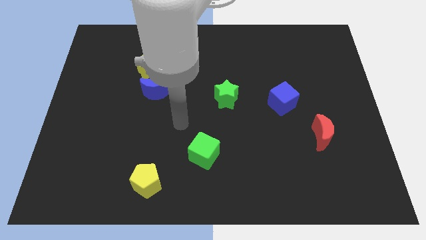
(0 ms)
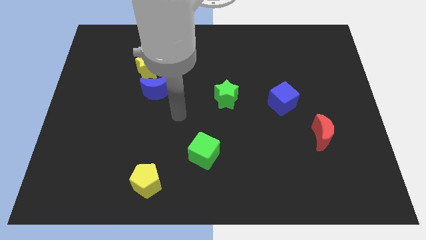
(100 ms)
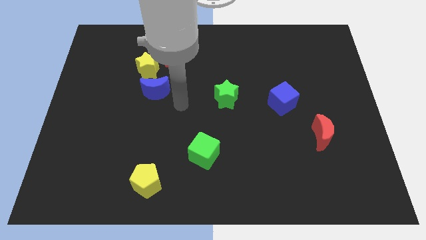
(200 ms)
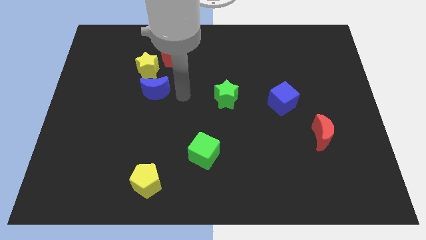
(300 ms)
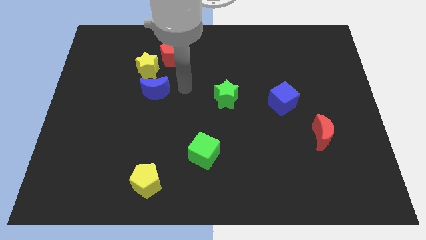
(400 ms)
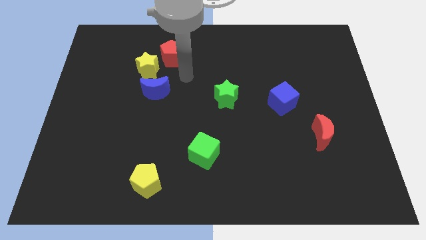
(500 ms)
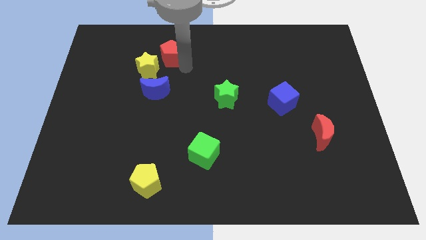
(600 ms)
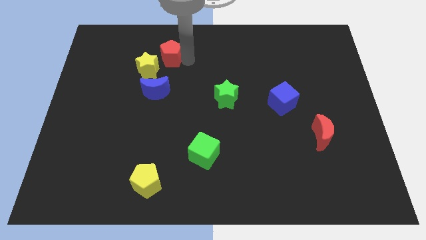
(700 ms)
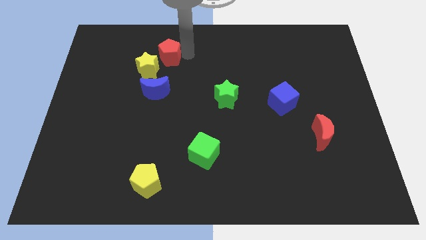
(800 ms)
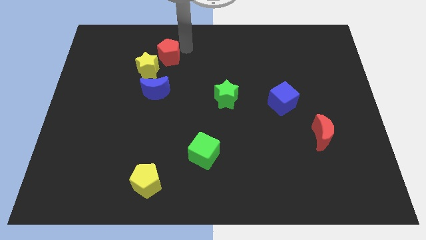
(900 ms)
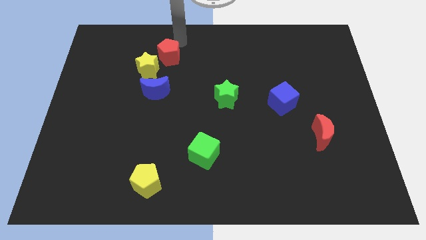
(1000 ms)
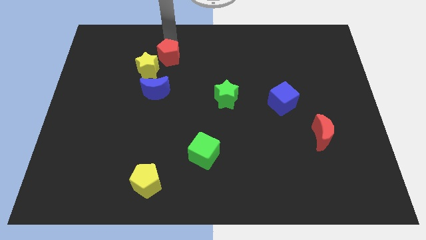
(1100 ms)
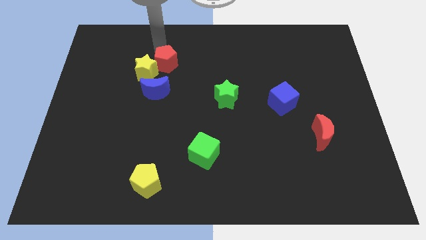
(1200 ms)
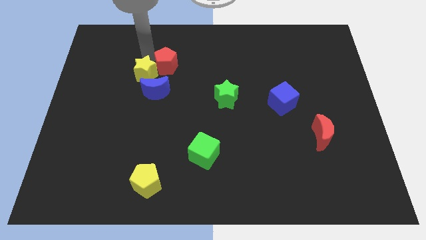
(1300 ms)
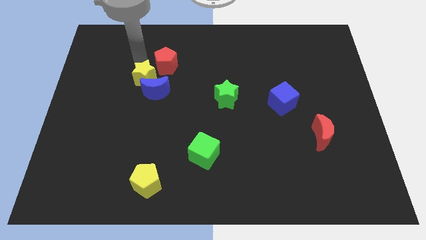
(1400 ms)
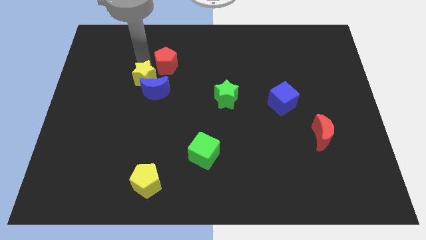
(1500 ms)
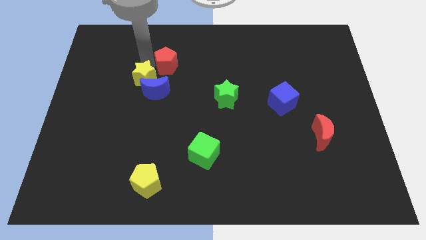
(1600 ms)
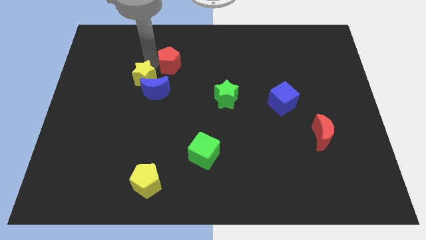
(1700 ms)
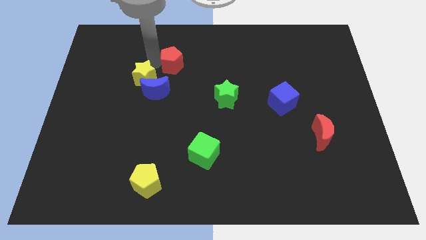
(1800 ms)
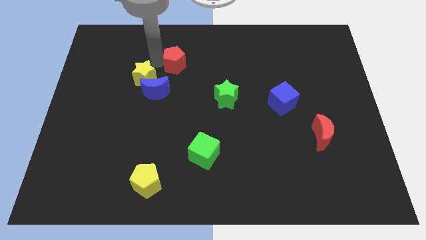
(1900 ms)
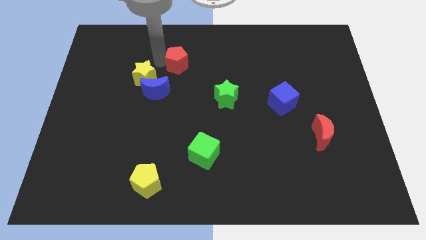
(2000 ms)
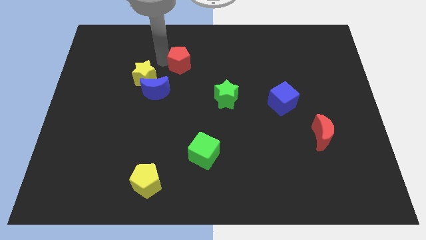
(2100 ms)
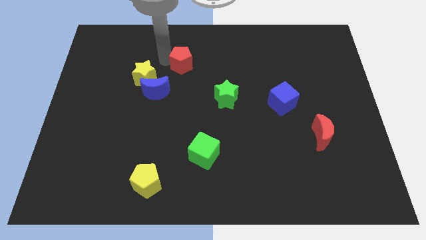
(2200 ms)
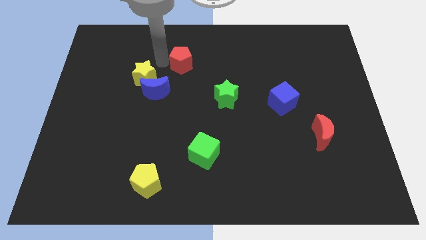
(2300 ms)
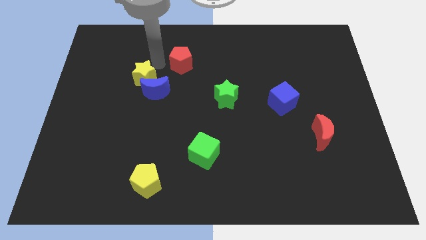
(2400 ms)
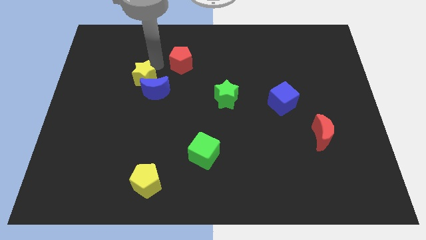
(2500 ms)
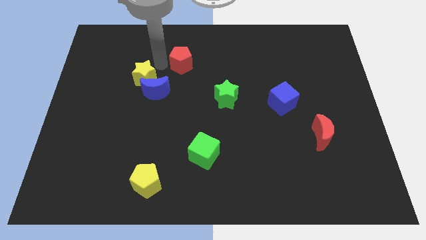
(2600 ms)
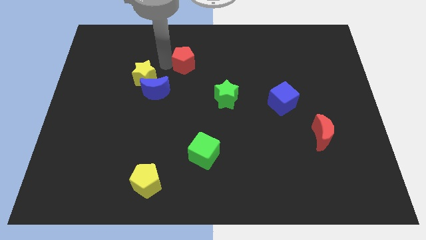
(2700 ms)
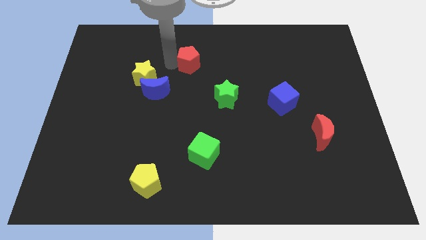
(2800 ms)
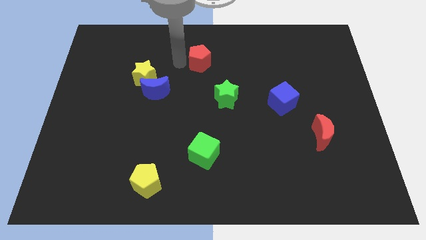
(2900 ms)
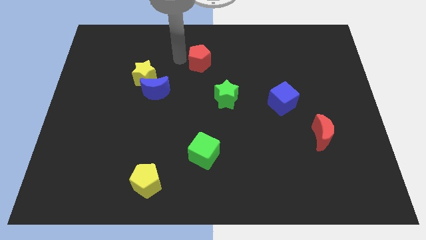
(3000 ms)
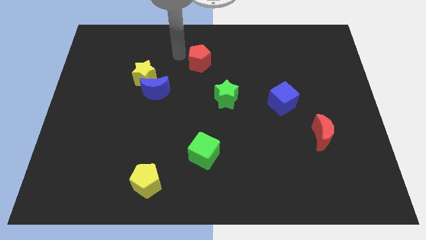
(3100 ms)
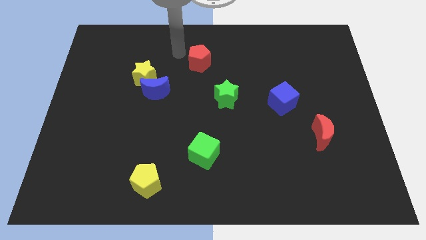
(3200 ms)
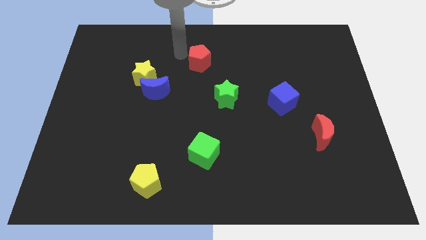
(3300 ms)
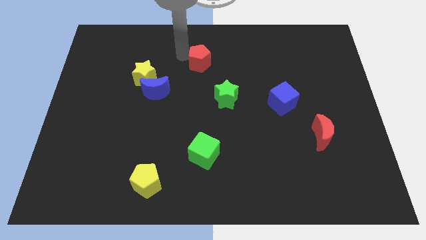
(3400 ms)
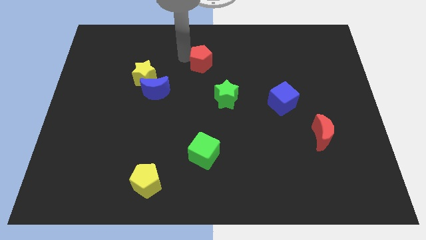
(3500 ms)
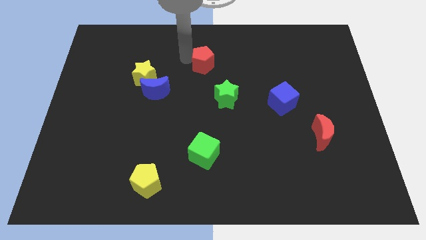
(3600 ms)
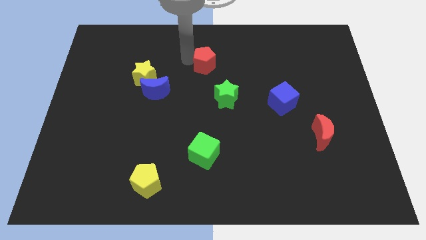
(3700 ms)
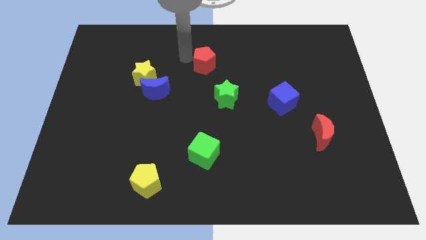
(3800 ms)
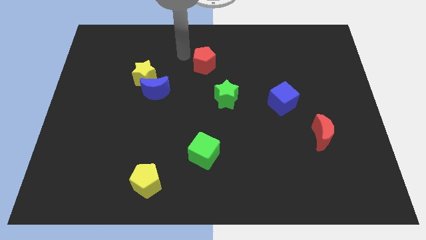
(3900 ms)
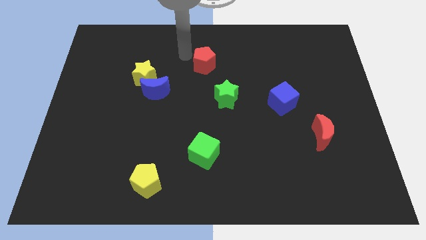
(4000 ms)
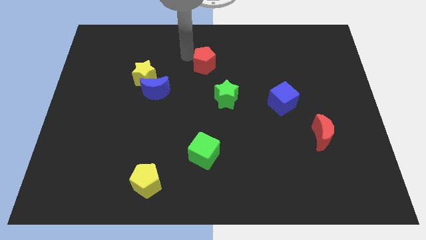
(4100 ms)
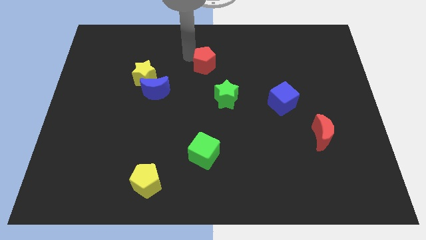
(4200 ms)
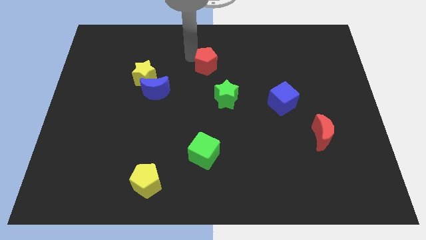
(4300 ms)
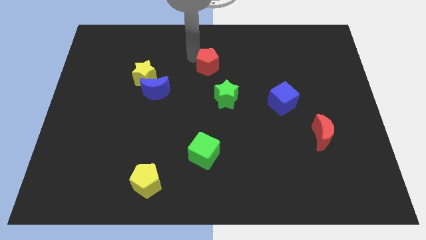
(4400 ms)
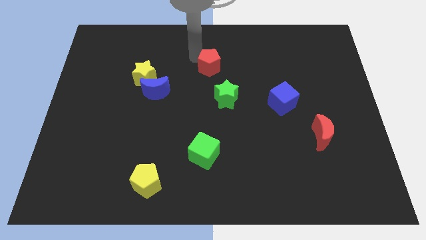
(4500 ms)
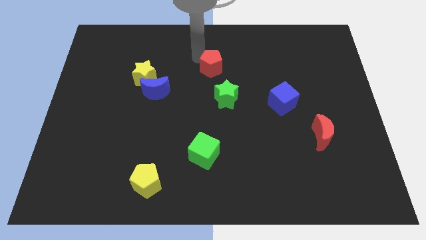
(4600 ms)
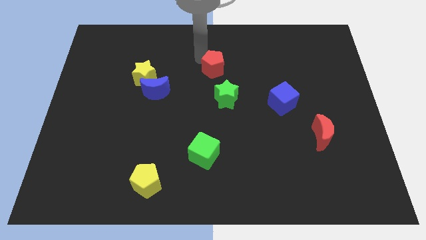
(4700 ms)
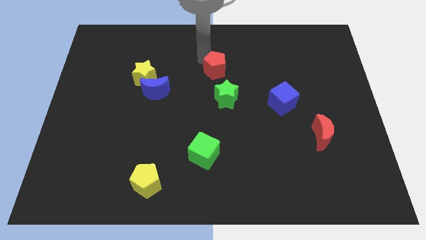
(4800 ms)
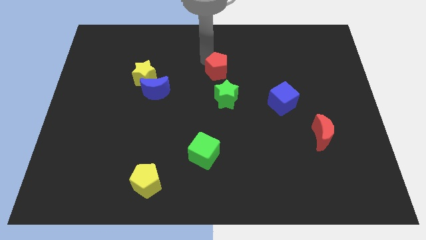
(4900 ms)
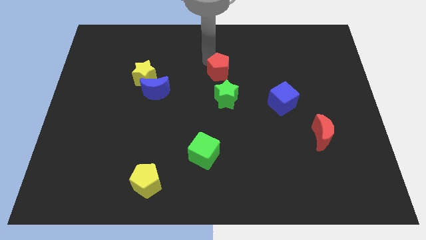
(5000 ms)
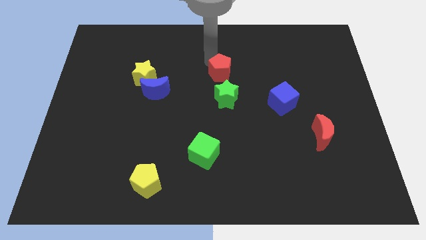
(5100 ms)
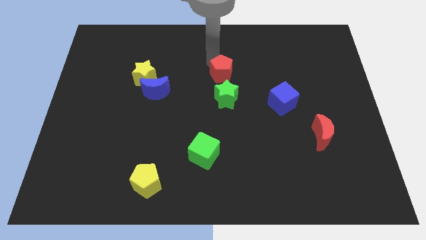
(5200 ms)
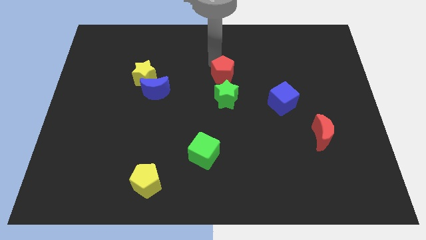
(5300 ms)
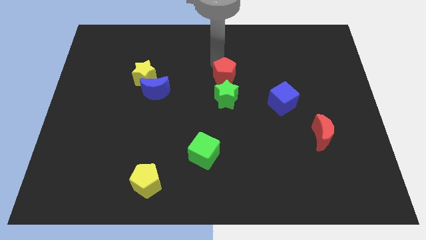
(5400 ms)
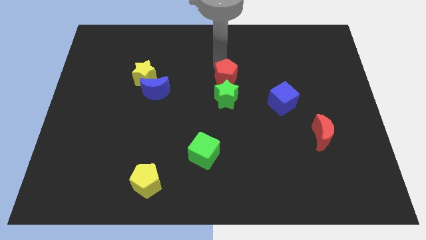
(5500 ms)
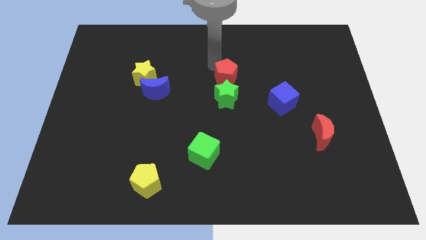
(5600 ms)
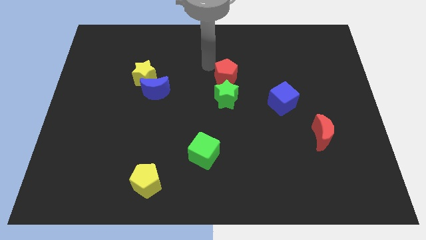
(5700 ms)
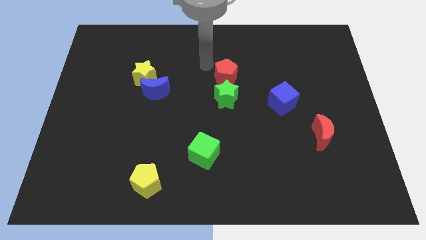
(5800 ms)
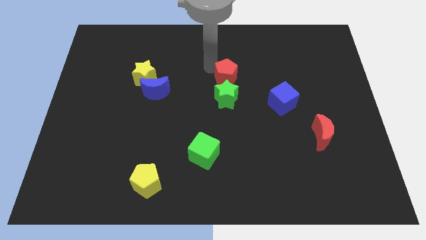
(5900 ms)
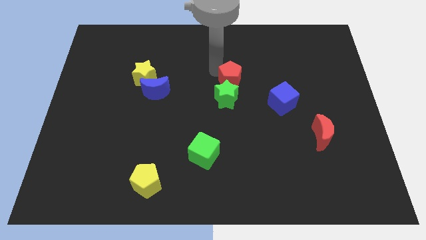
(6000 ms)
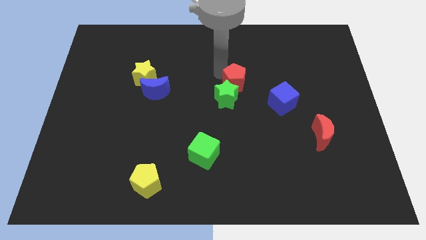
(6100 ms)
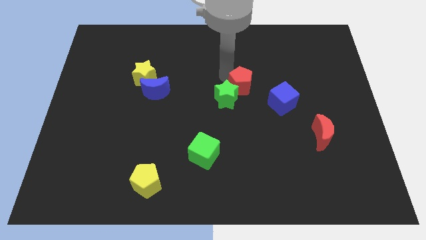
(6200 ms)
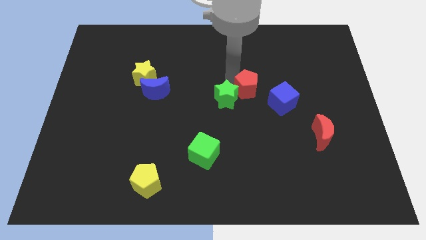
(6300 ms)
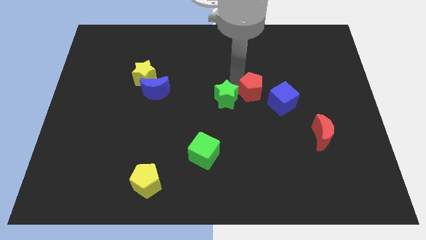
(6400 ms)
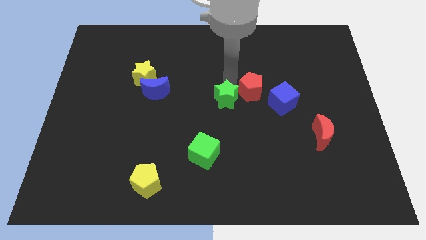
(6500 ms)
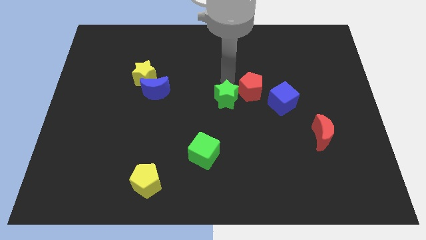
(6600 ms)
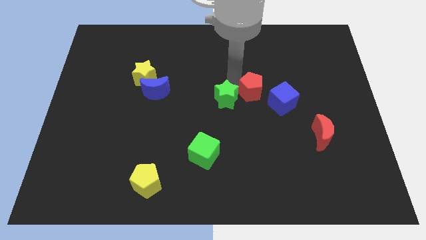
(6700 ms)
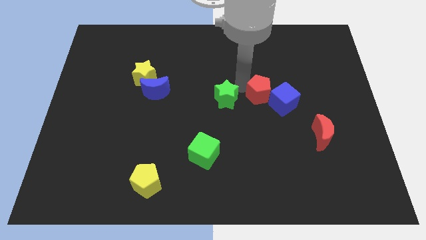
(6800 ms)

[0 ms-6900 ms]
move the red pentagon close to the blue cube

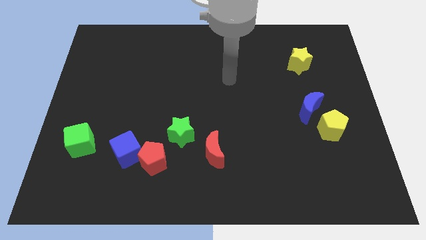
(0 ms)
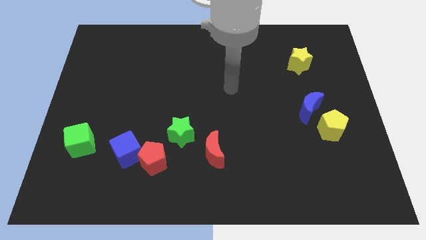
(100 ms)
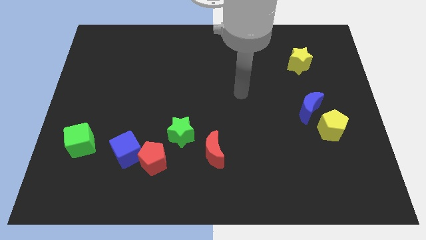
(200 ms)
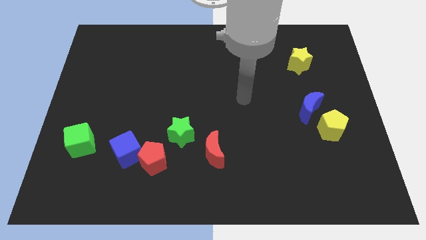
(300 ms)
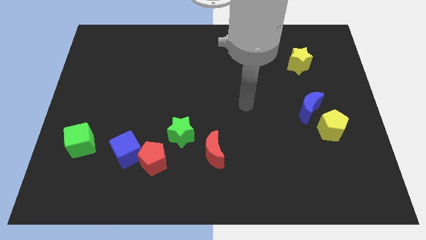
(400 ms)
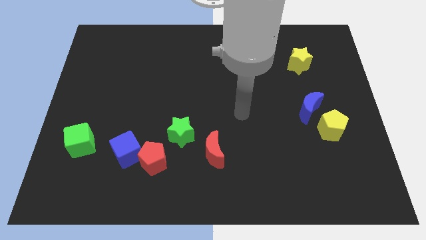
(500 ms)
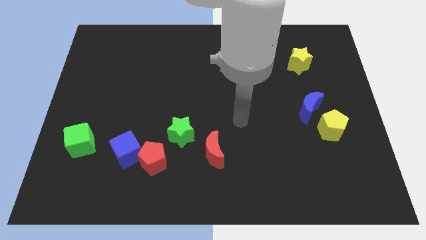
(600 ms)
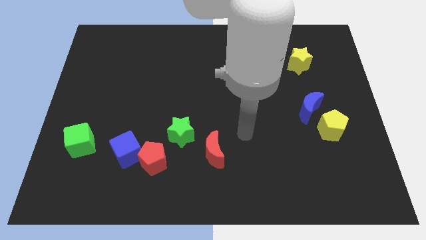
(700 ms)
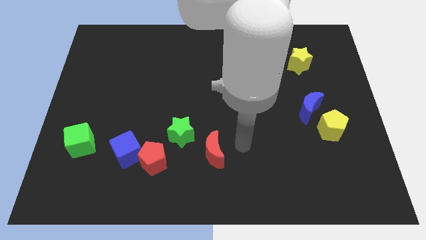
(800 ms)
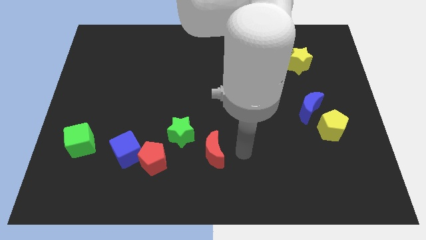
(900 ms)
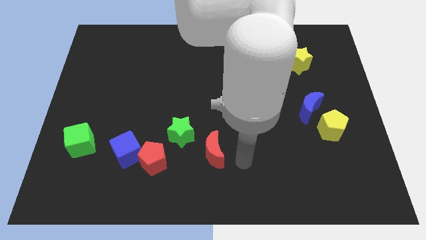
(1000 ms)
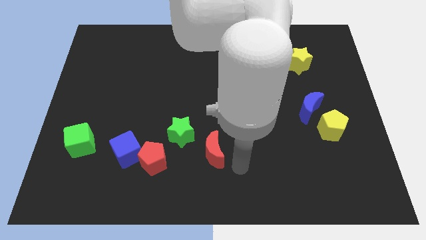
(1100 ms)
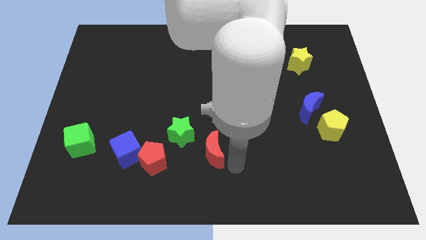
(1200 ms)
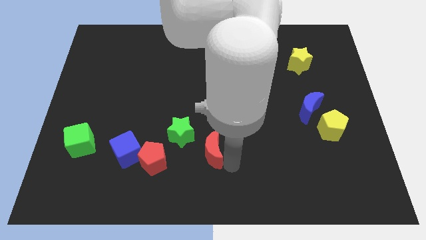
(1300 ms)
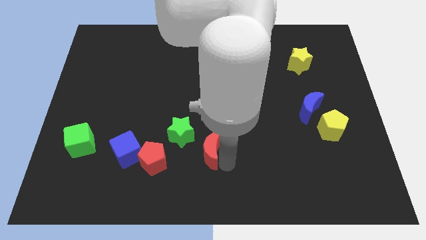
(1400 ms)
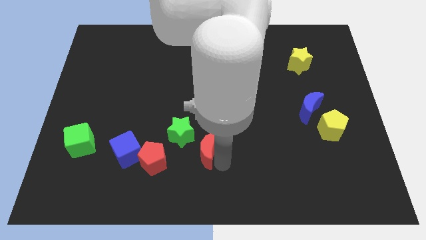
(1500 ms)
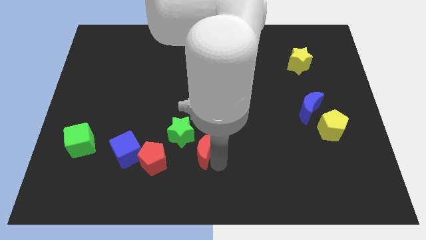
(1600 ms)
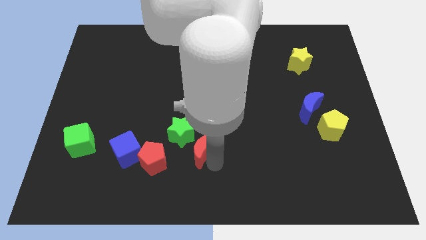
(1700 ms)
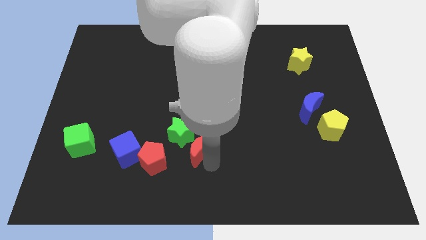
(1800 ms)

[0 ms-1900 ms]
put the red moon to the green star
